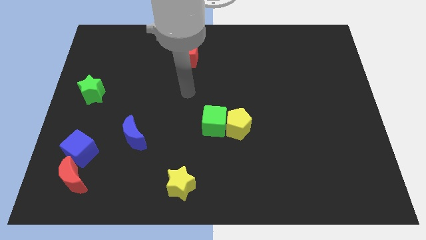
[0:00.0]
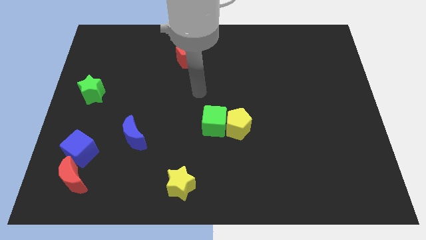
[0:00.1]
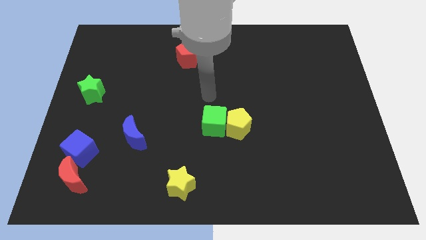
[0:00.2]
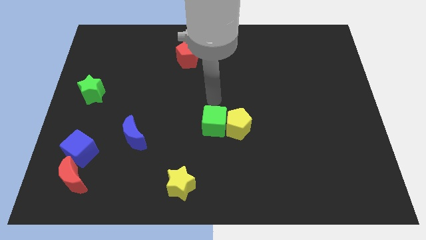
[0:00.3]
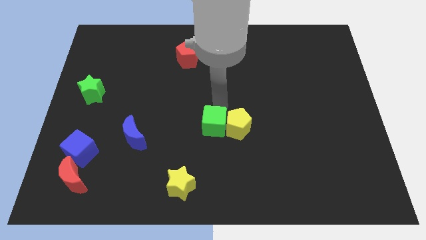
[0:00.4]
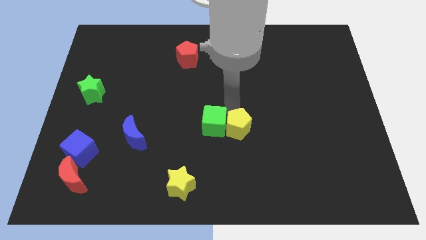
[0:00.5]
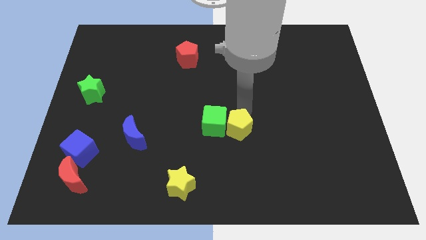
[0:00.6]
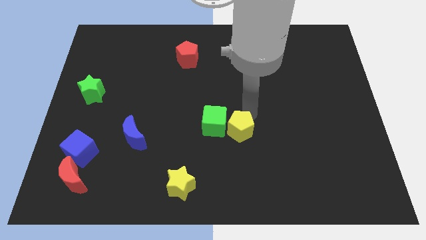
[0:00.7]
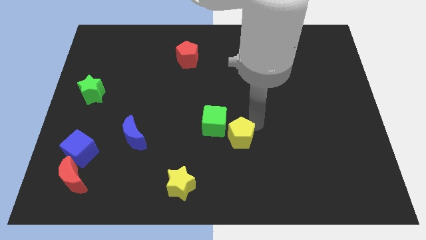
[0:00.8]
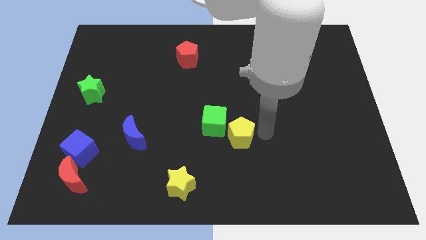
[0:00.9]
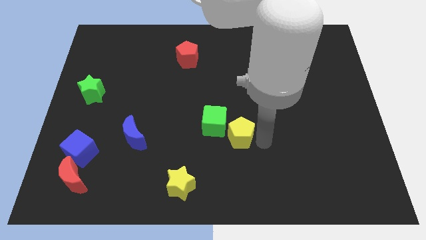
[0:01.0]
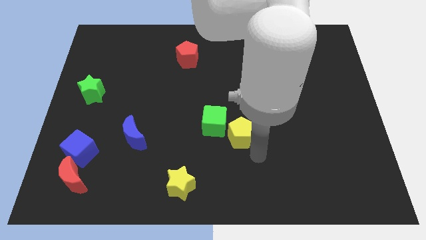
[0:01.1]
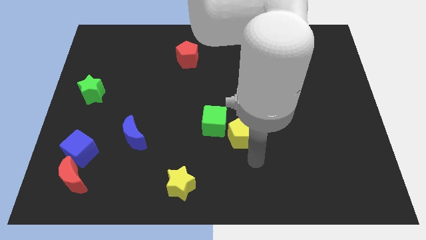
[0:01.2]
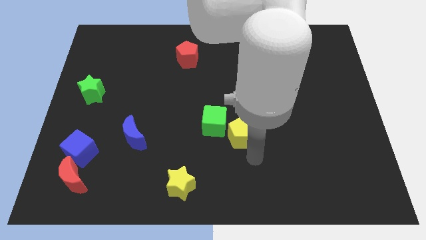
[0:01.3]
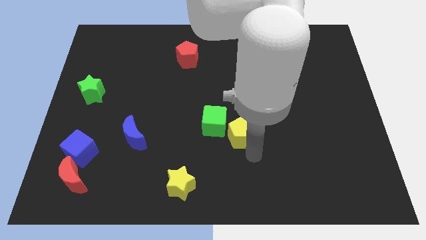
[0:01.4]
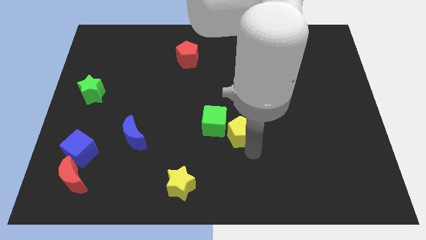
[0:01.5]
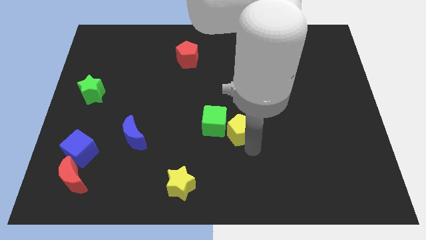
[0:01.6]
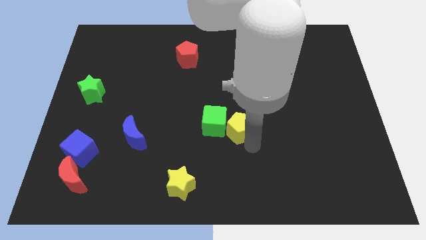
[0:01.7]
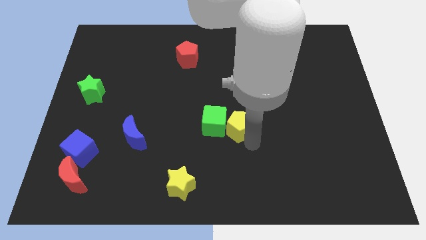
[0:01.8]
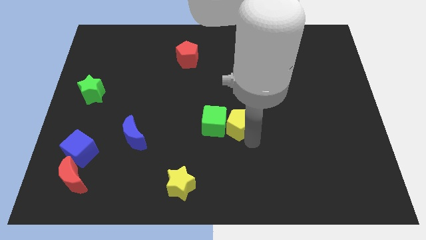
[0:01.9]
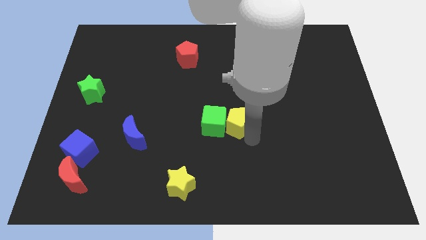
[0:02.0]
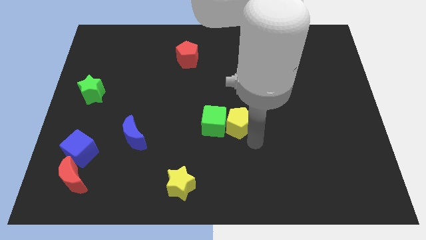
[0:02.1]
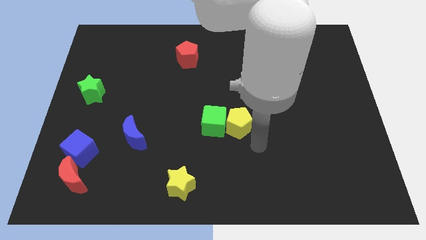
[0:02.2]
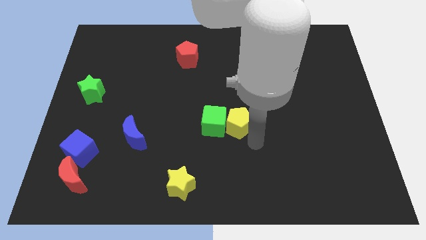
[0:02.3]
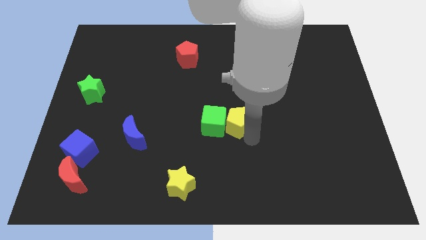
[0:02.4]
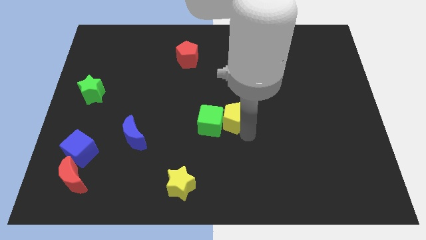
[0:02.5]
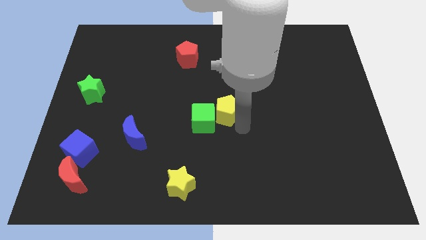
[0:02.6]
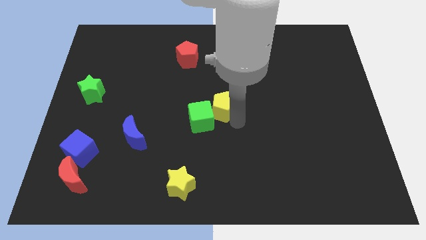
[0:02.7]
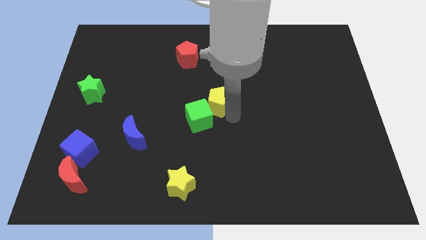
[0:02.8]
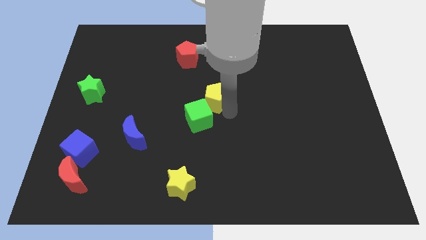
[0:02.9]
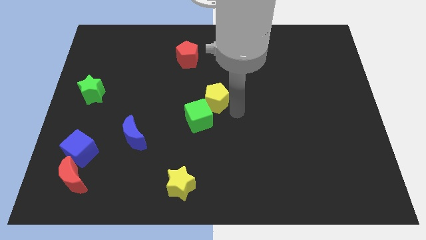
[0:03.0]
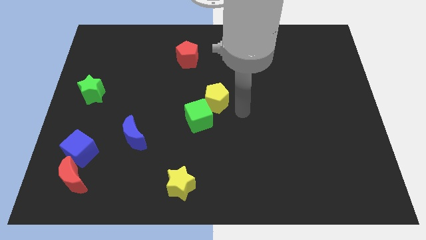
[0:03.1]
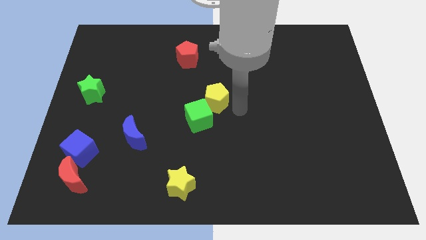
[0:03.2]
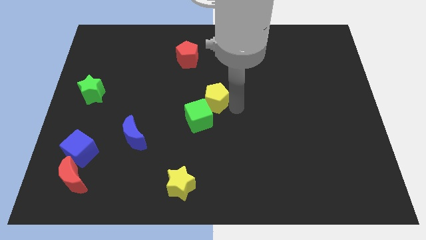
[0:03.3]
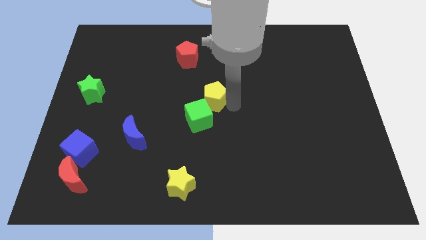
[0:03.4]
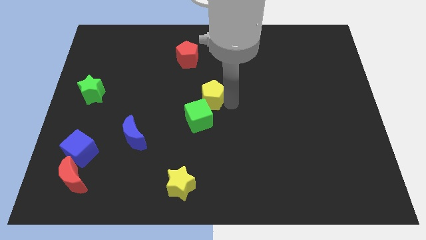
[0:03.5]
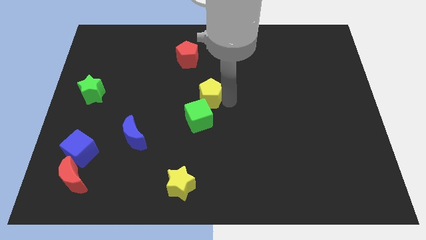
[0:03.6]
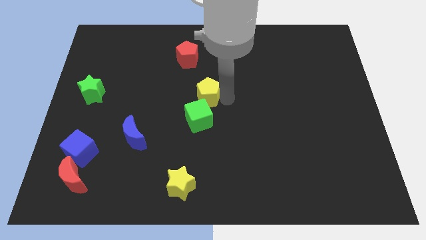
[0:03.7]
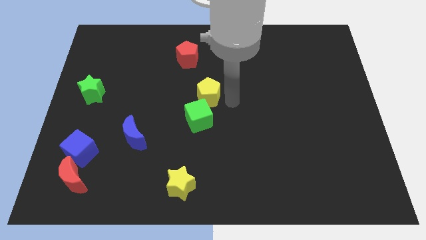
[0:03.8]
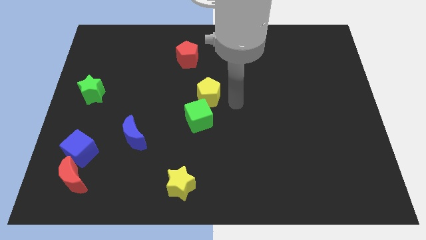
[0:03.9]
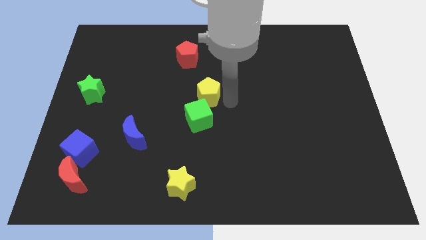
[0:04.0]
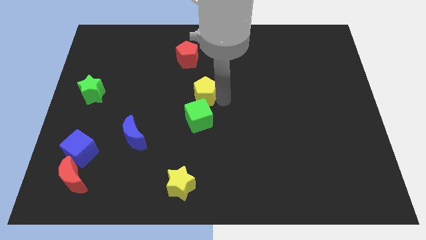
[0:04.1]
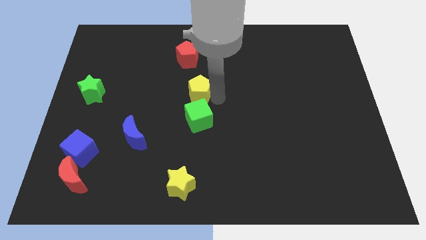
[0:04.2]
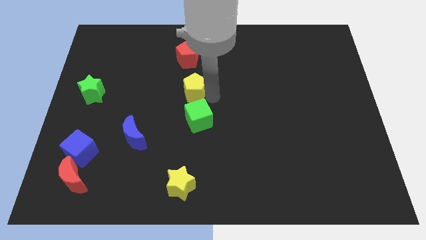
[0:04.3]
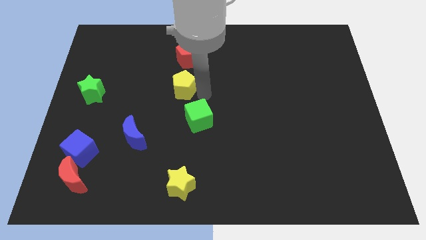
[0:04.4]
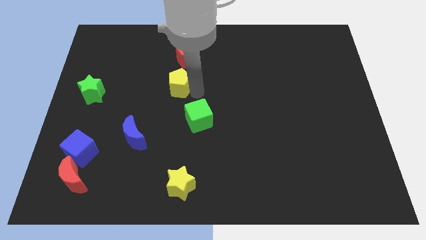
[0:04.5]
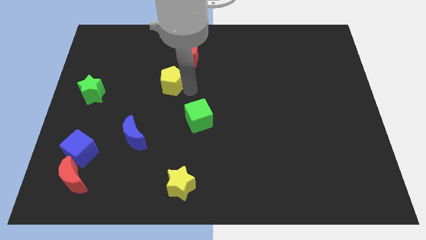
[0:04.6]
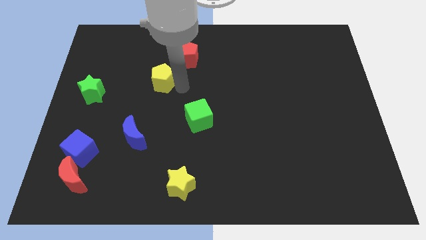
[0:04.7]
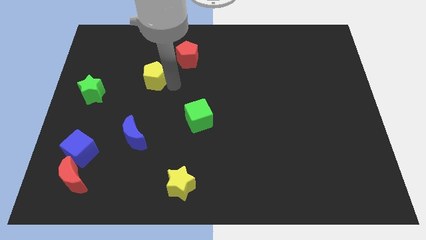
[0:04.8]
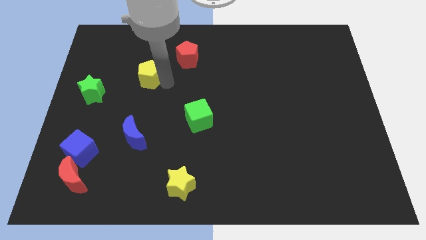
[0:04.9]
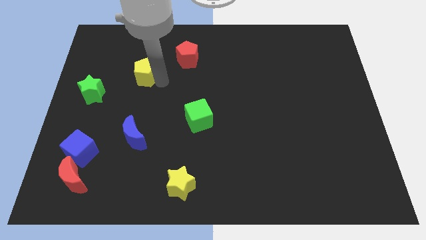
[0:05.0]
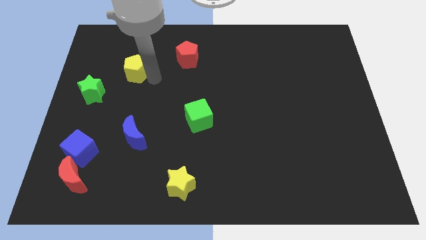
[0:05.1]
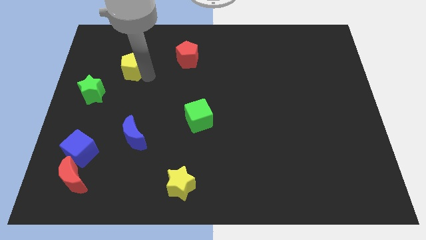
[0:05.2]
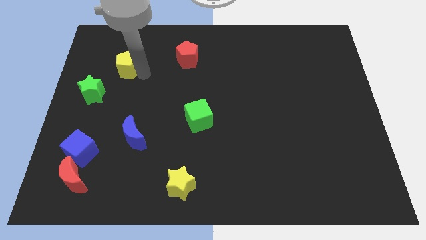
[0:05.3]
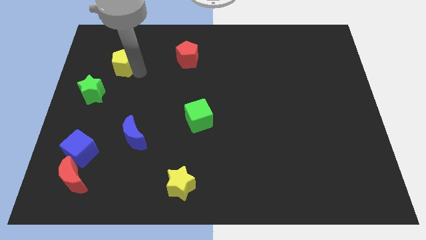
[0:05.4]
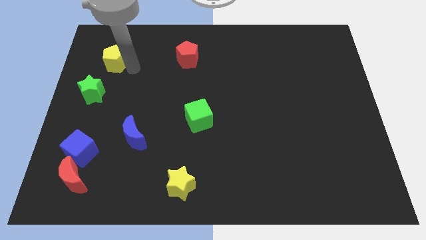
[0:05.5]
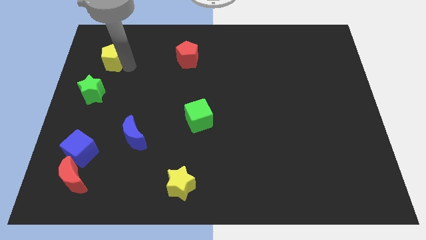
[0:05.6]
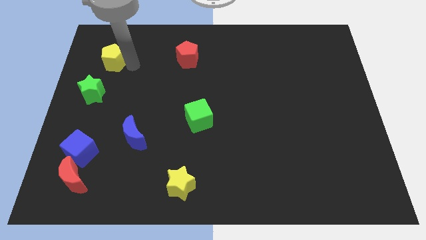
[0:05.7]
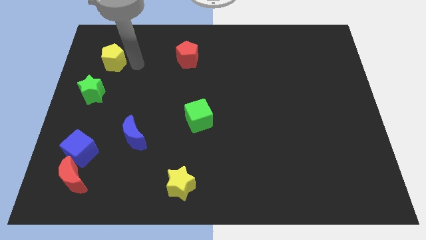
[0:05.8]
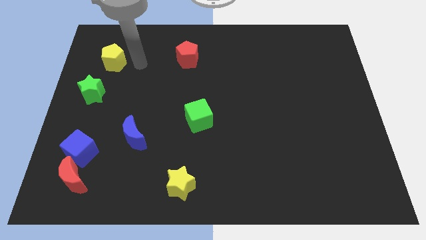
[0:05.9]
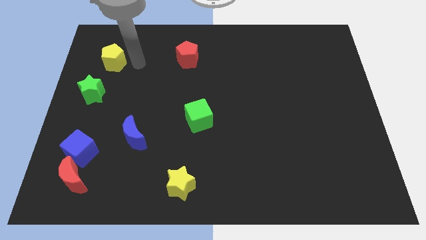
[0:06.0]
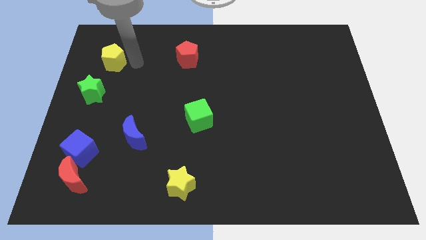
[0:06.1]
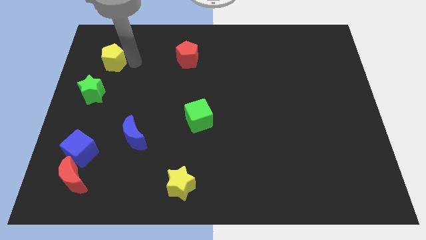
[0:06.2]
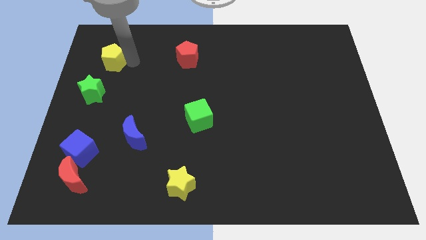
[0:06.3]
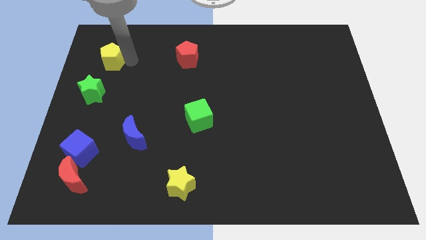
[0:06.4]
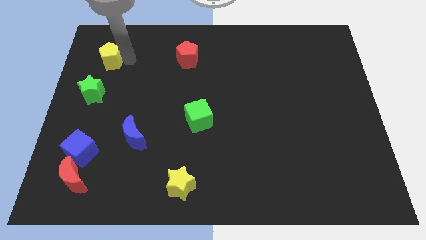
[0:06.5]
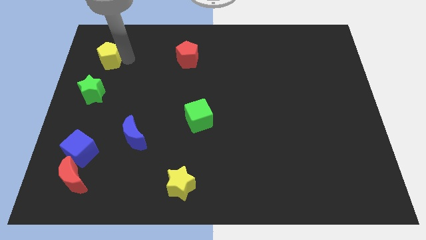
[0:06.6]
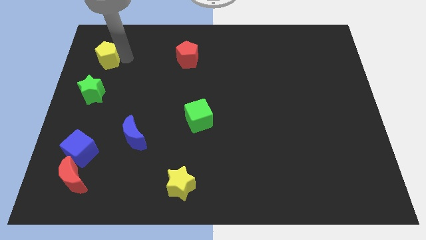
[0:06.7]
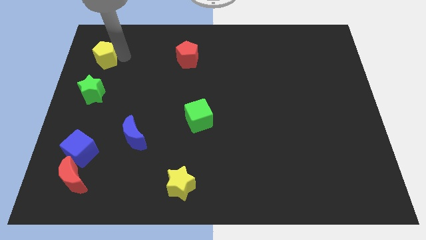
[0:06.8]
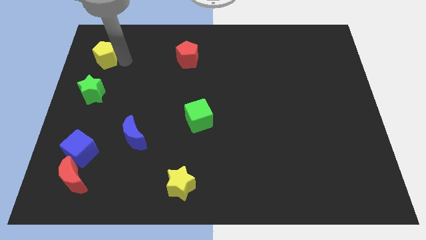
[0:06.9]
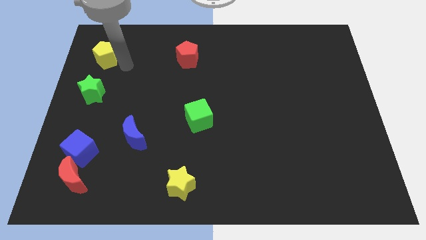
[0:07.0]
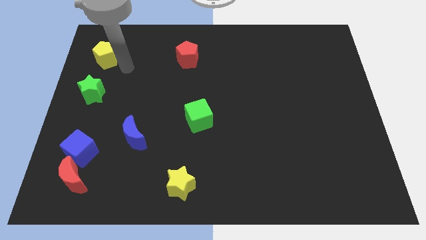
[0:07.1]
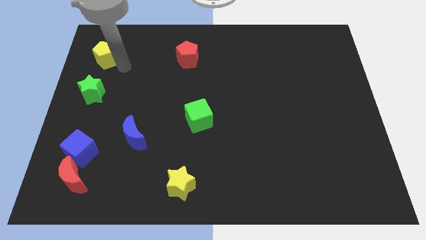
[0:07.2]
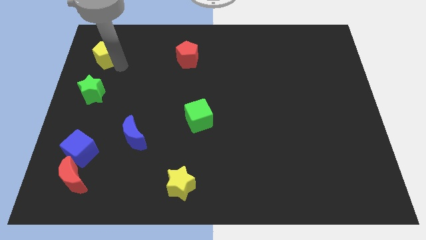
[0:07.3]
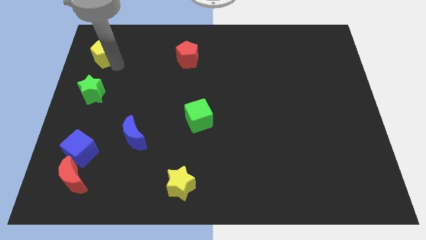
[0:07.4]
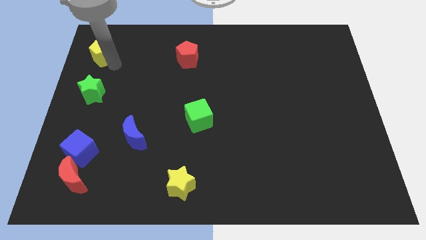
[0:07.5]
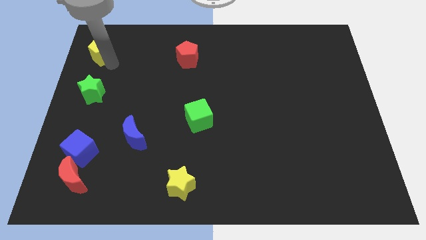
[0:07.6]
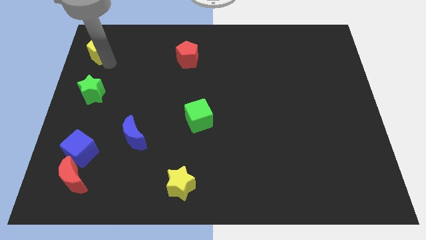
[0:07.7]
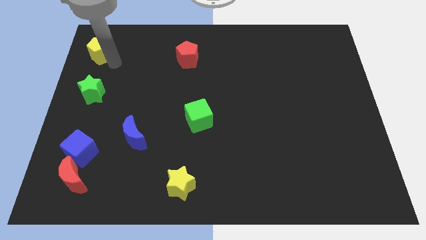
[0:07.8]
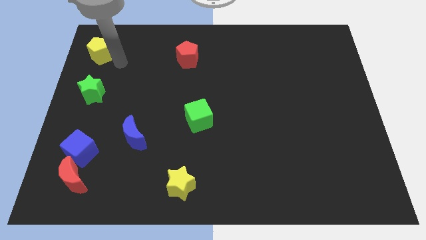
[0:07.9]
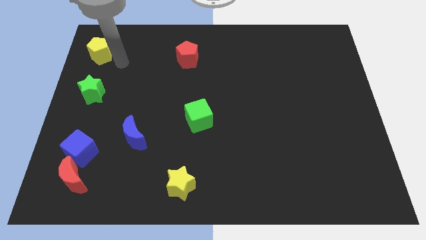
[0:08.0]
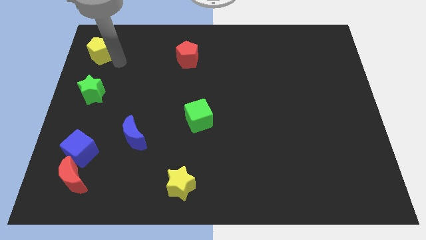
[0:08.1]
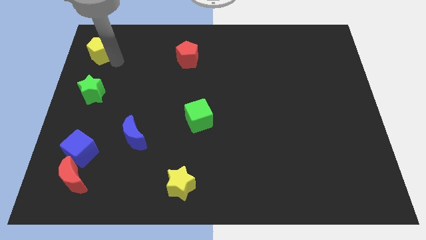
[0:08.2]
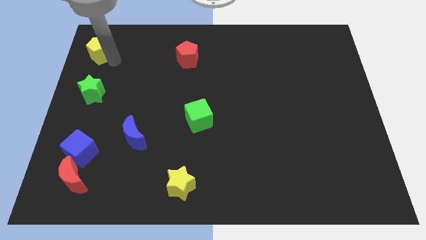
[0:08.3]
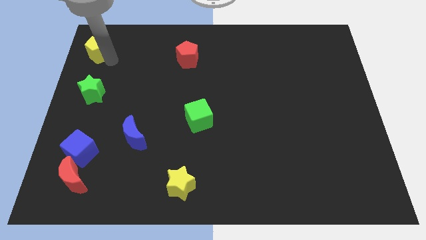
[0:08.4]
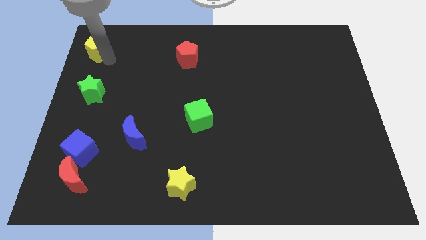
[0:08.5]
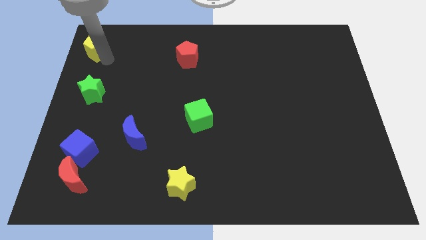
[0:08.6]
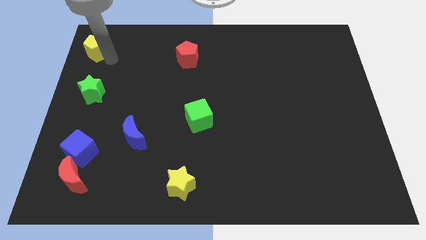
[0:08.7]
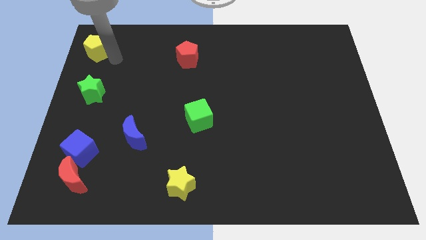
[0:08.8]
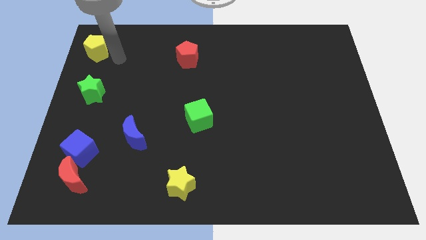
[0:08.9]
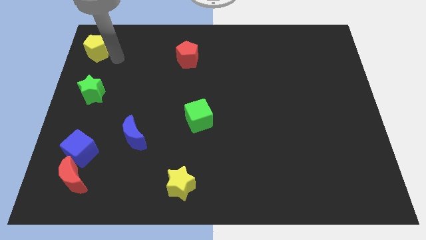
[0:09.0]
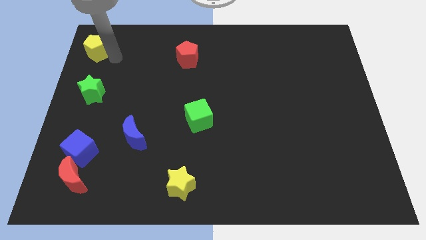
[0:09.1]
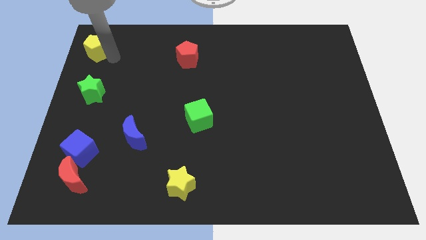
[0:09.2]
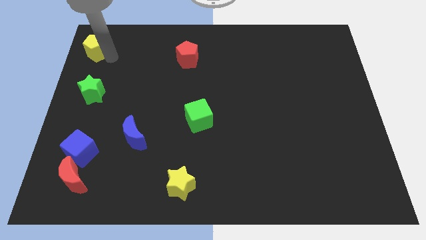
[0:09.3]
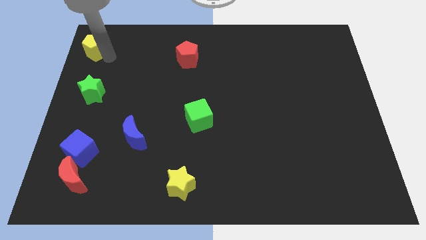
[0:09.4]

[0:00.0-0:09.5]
push the yellow pentagon to the top left of the board
